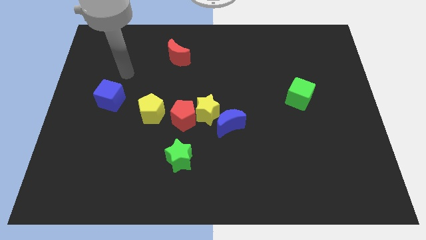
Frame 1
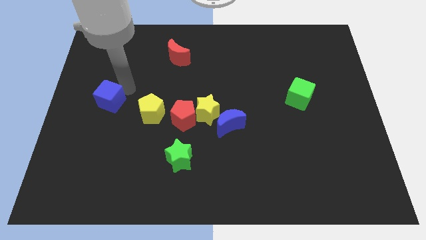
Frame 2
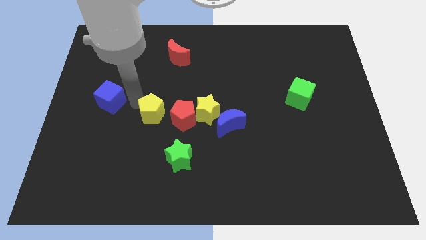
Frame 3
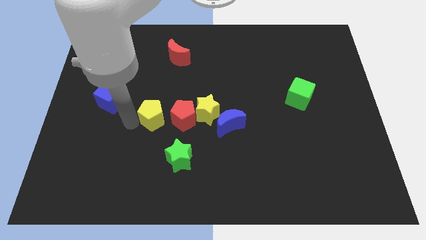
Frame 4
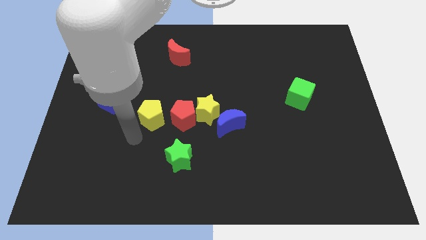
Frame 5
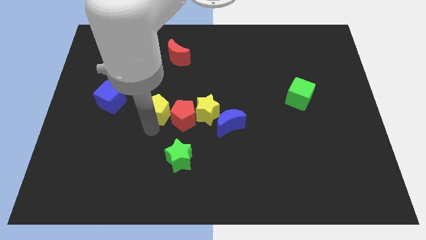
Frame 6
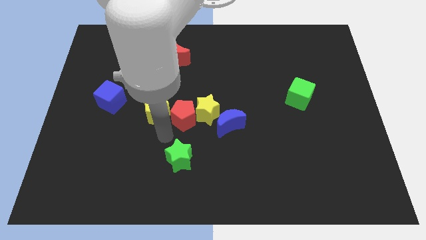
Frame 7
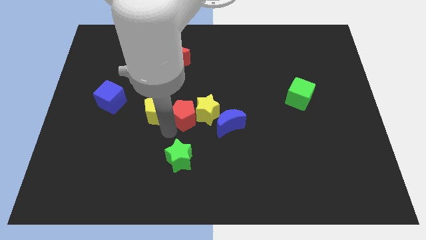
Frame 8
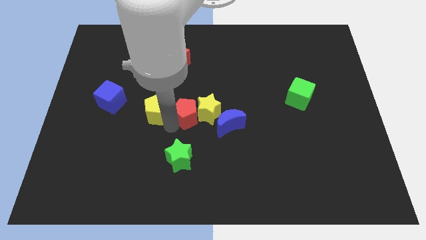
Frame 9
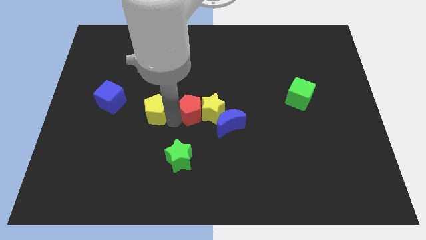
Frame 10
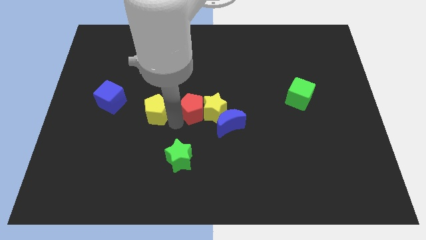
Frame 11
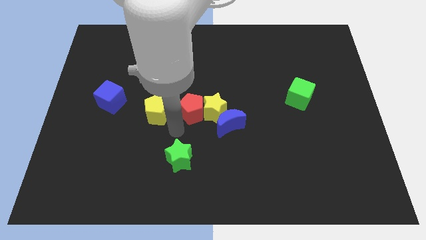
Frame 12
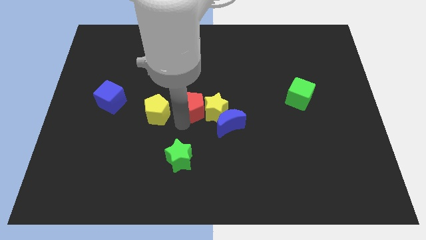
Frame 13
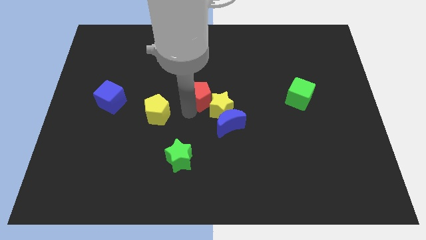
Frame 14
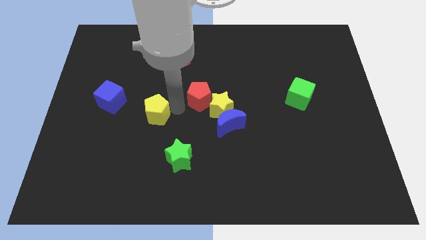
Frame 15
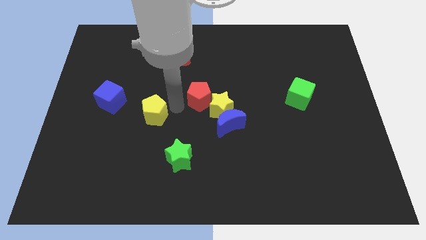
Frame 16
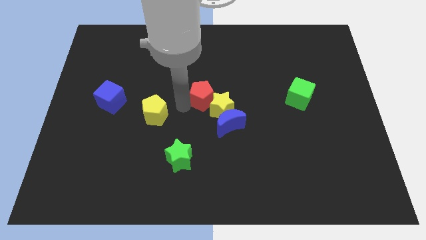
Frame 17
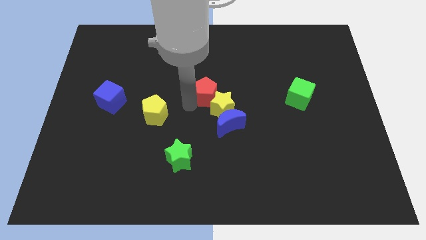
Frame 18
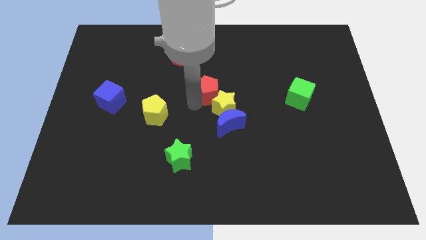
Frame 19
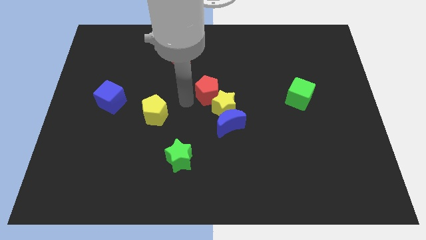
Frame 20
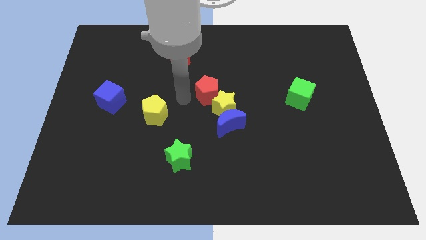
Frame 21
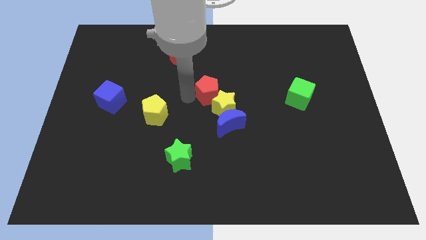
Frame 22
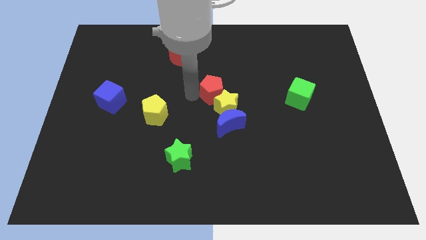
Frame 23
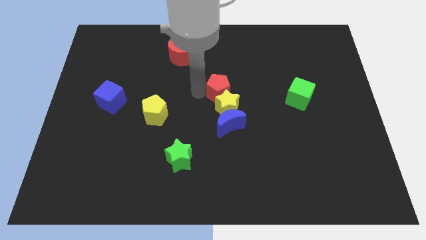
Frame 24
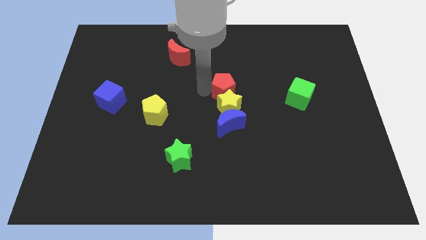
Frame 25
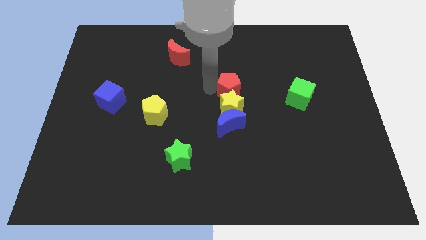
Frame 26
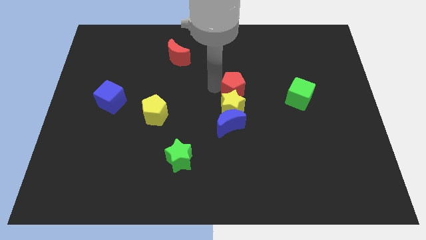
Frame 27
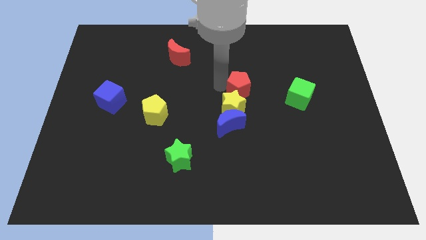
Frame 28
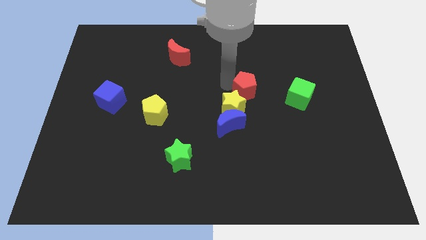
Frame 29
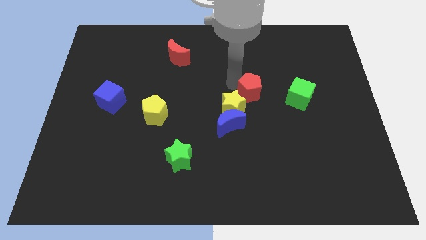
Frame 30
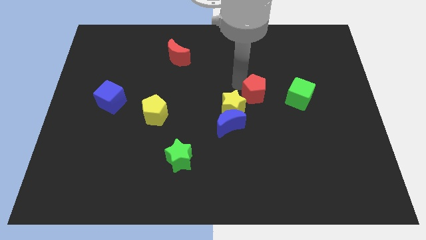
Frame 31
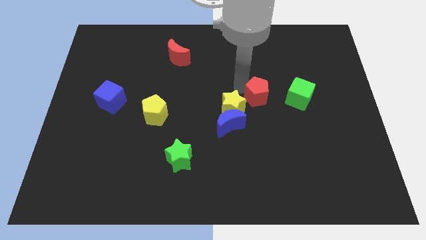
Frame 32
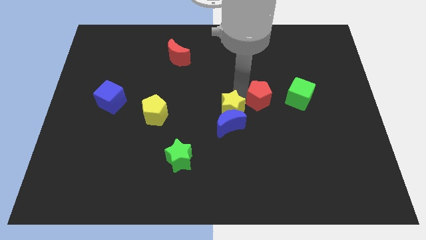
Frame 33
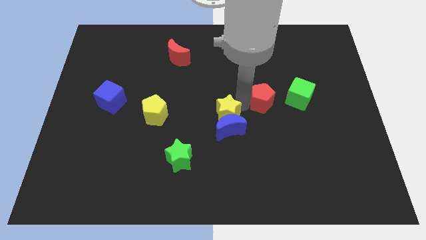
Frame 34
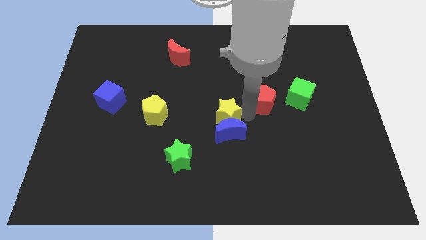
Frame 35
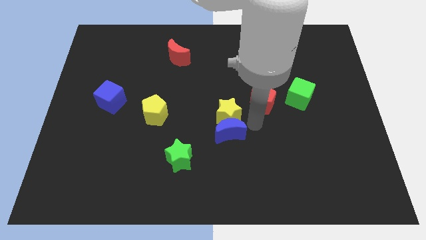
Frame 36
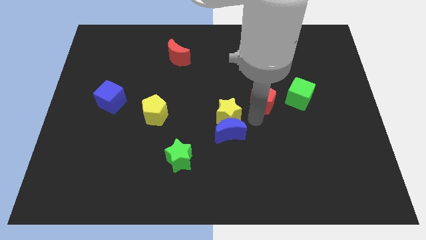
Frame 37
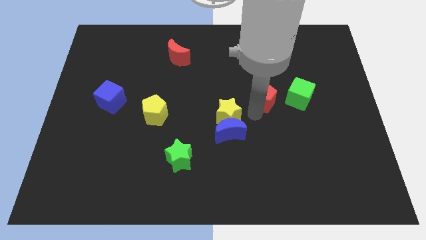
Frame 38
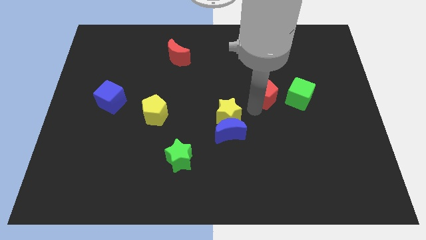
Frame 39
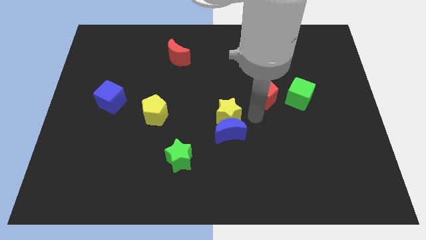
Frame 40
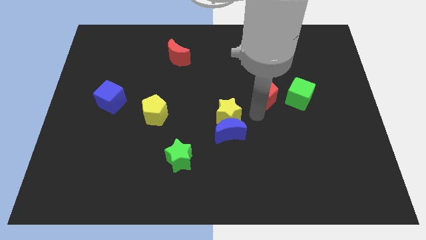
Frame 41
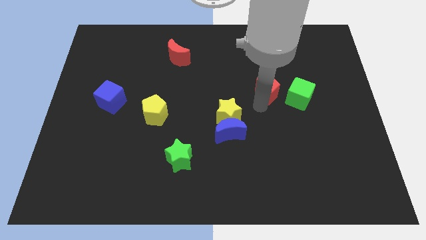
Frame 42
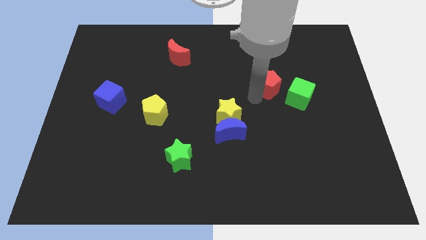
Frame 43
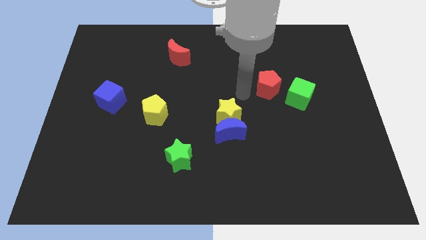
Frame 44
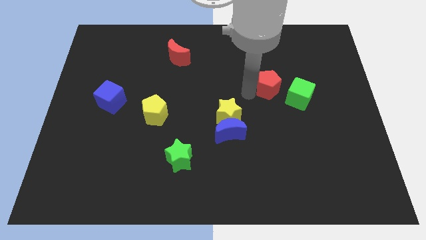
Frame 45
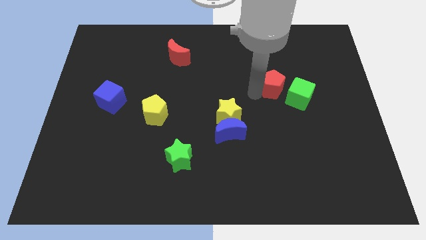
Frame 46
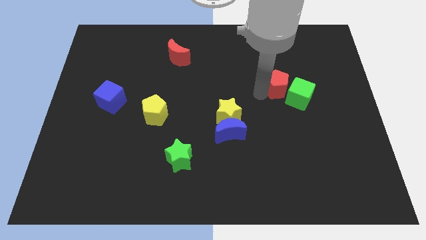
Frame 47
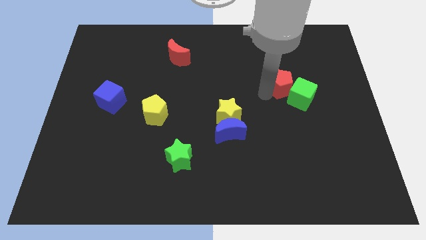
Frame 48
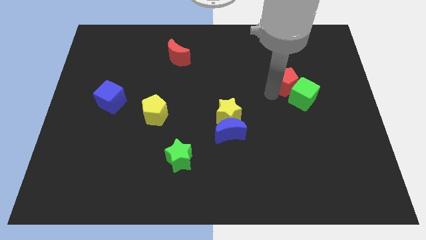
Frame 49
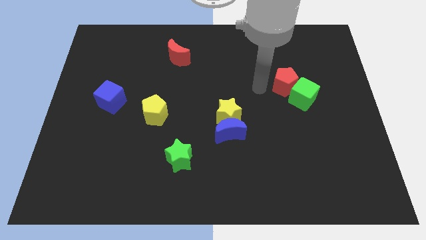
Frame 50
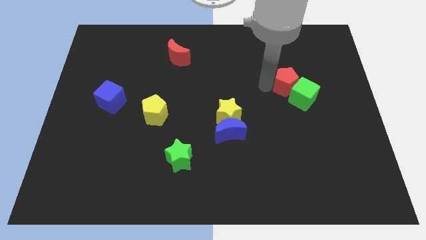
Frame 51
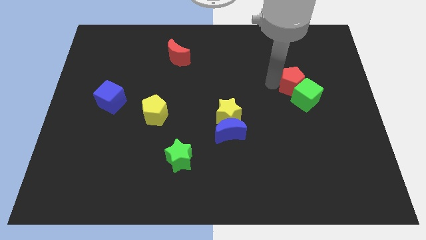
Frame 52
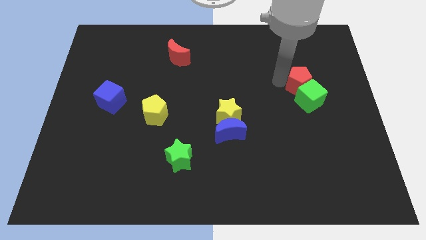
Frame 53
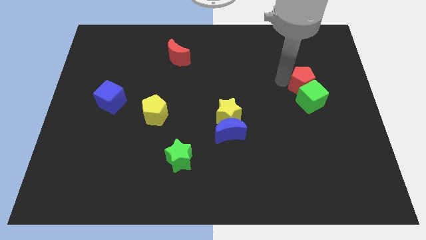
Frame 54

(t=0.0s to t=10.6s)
slide the red pentagon diagonally up and to the right of the green cube

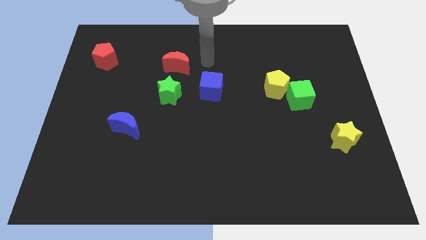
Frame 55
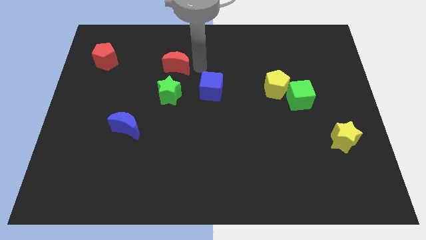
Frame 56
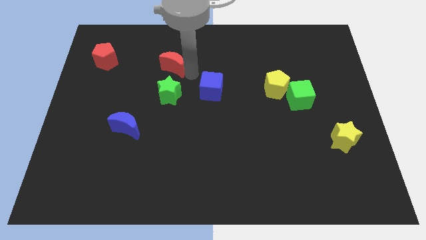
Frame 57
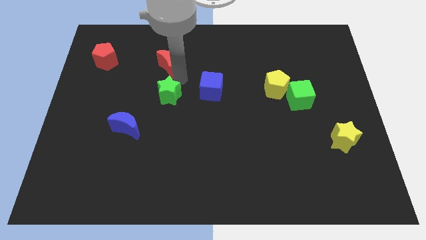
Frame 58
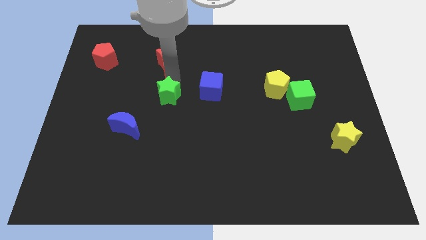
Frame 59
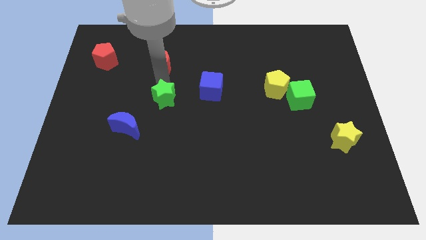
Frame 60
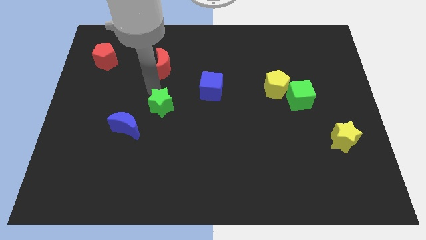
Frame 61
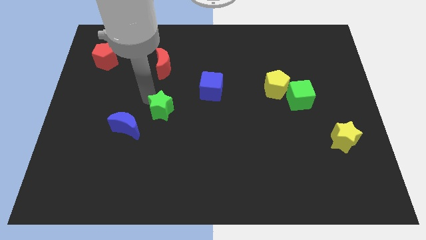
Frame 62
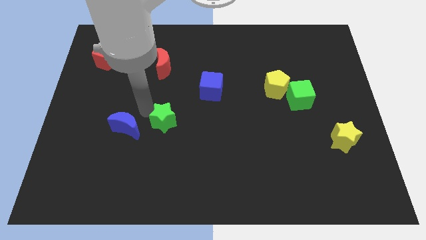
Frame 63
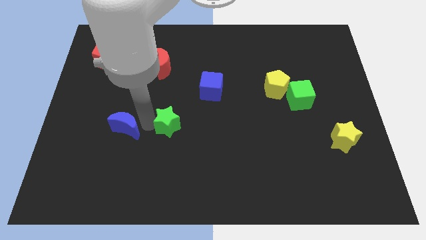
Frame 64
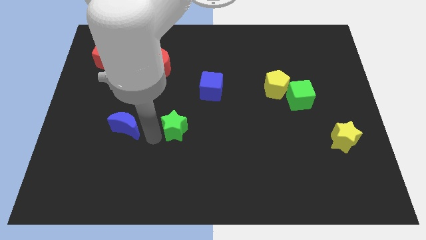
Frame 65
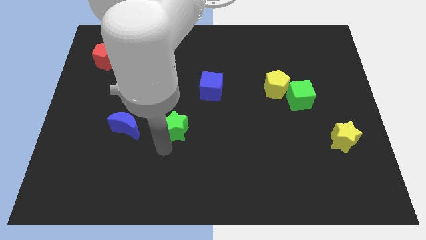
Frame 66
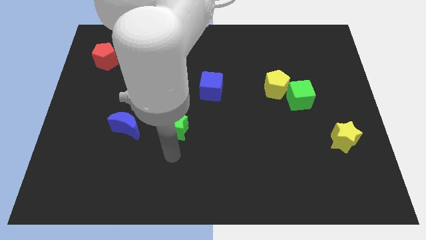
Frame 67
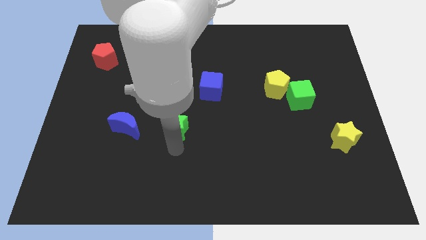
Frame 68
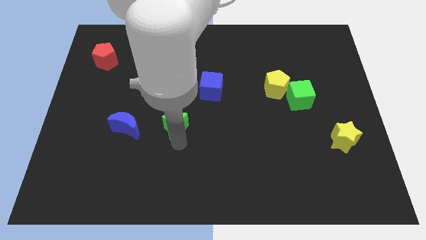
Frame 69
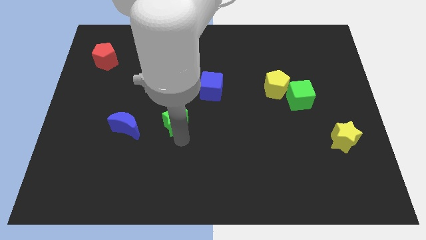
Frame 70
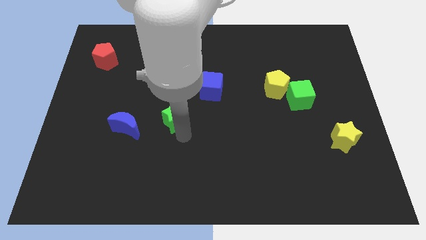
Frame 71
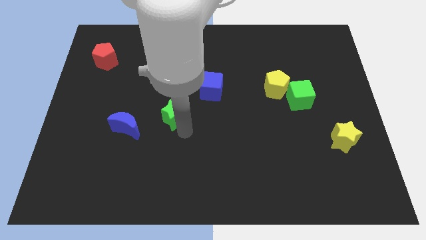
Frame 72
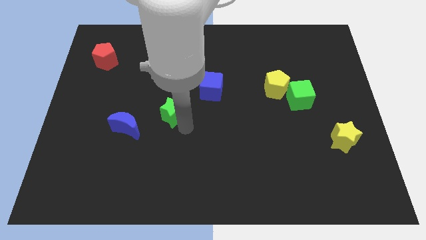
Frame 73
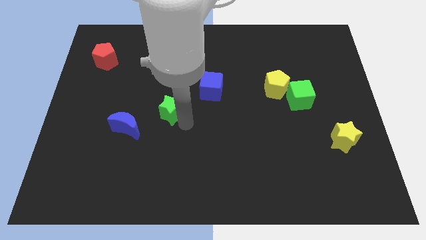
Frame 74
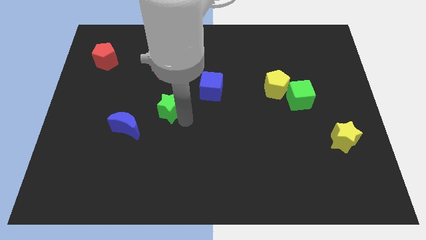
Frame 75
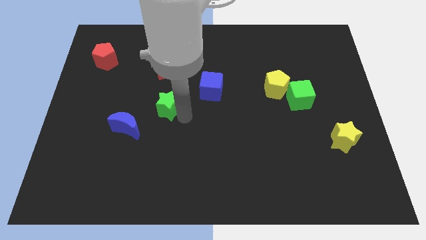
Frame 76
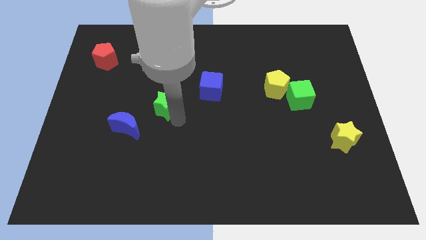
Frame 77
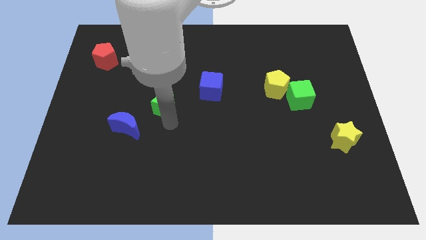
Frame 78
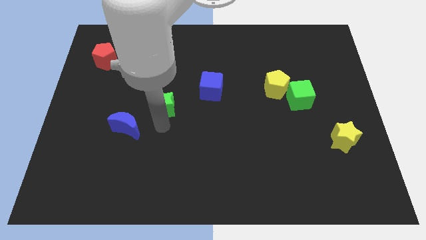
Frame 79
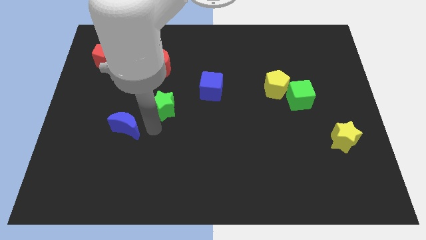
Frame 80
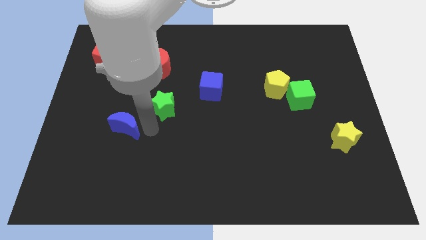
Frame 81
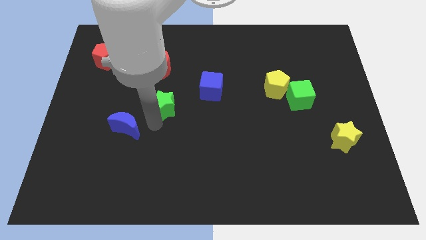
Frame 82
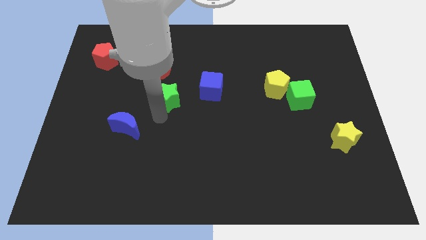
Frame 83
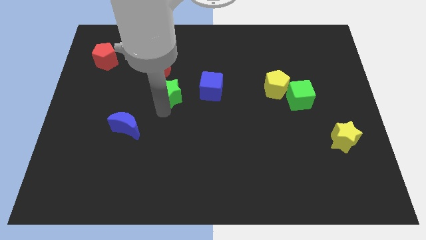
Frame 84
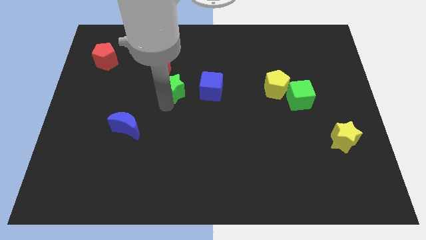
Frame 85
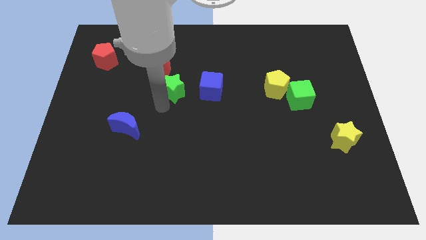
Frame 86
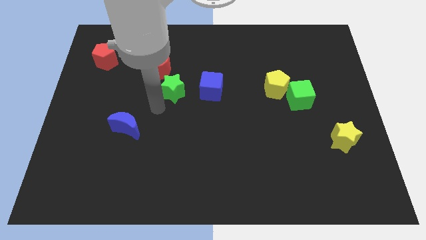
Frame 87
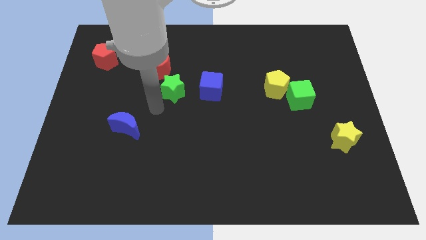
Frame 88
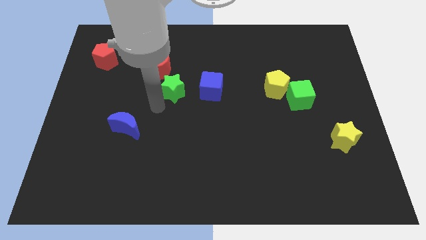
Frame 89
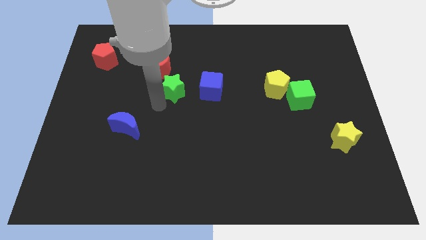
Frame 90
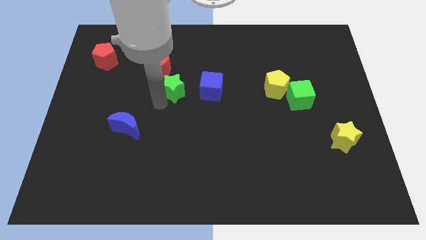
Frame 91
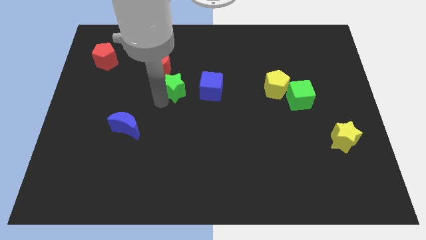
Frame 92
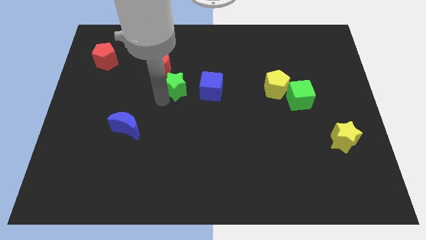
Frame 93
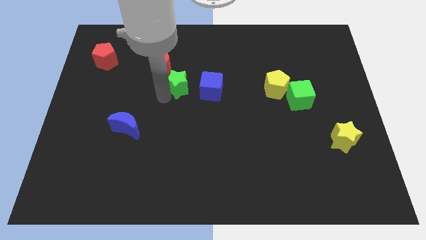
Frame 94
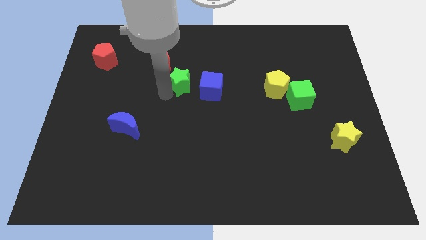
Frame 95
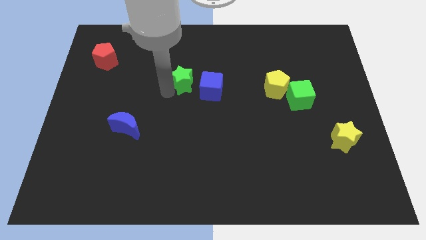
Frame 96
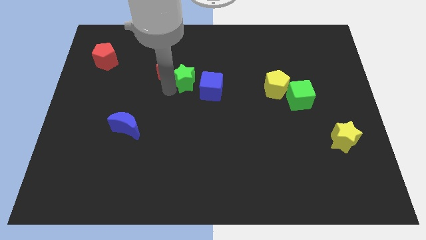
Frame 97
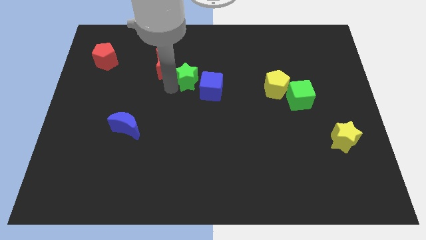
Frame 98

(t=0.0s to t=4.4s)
push the green star to the right of the red moon
